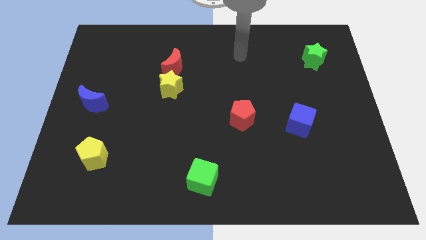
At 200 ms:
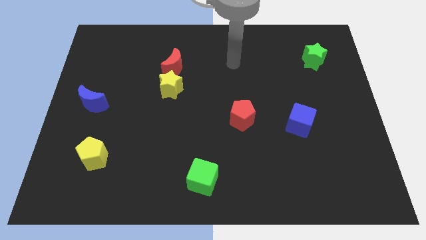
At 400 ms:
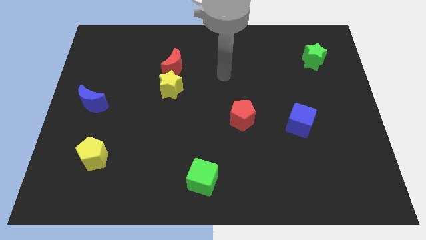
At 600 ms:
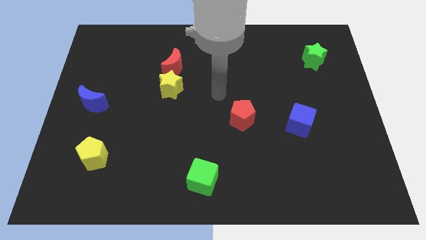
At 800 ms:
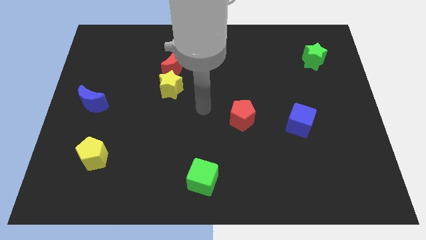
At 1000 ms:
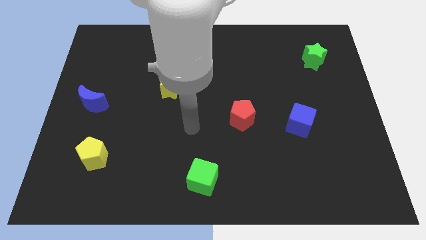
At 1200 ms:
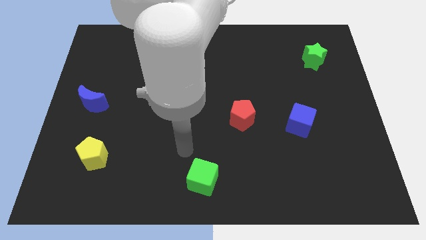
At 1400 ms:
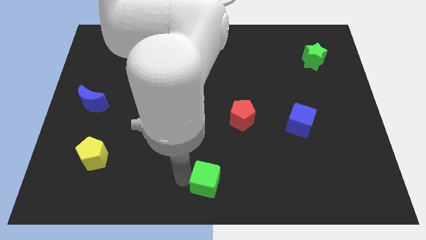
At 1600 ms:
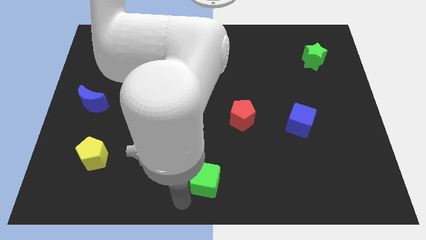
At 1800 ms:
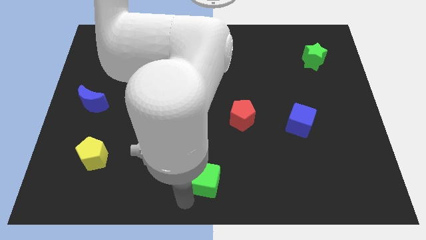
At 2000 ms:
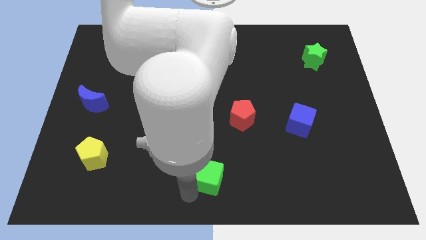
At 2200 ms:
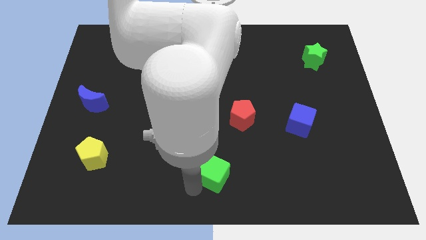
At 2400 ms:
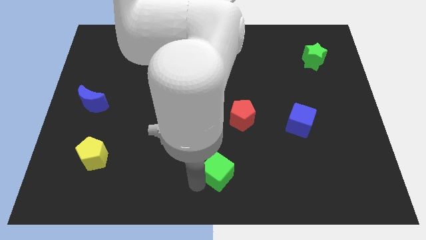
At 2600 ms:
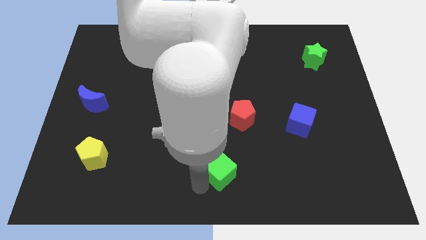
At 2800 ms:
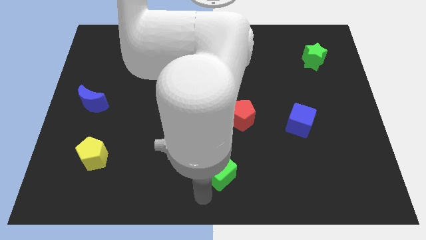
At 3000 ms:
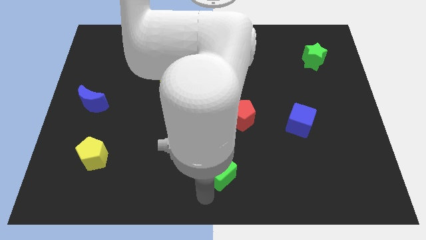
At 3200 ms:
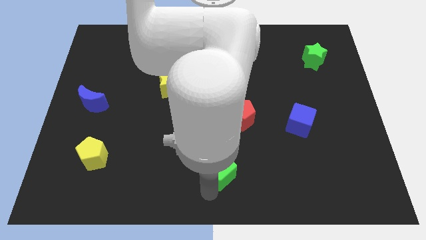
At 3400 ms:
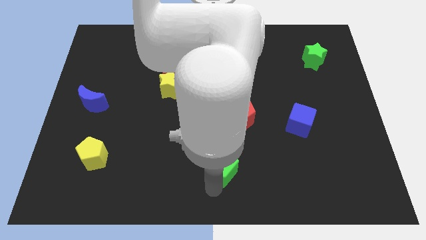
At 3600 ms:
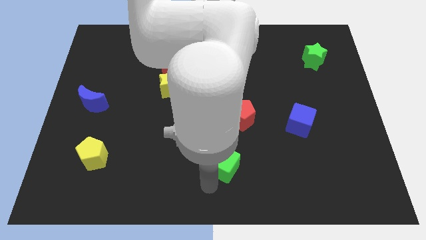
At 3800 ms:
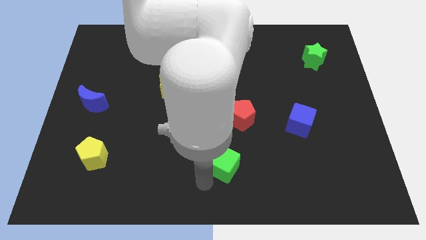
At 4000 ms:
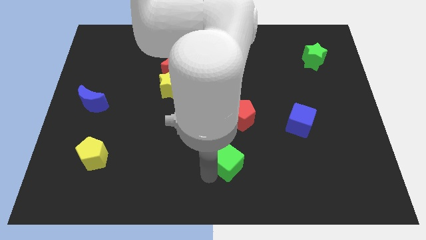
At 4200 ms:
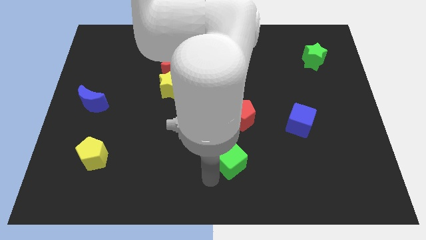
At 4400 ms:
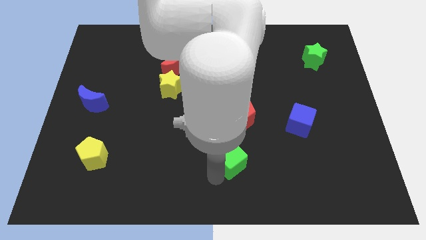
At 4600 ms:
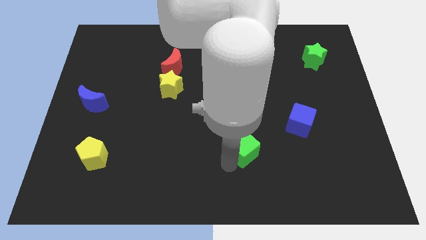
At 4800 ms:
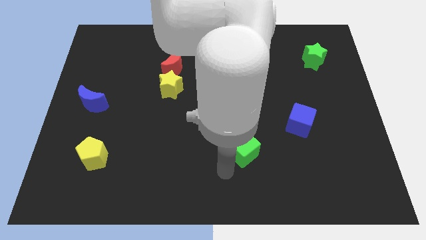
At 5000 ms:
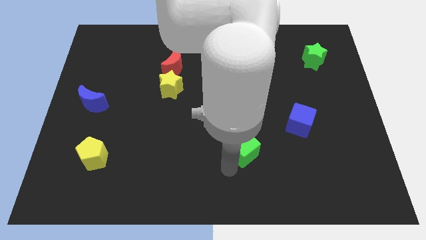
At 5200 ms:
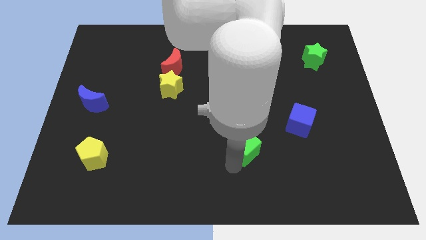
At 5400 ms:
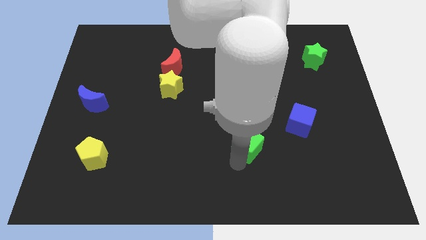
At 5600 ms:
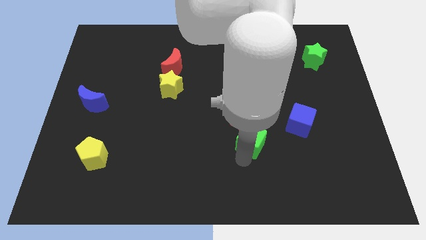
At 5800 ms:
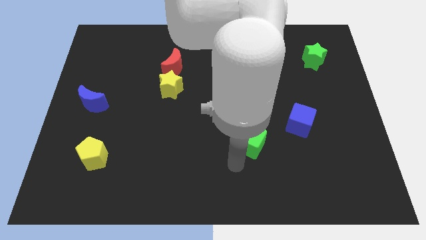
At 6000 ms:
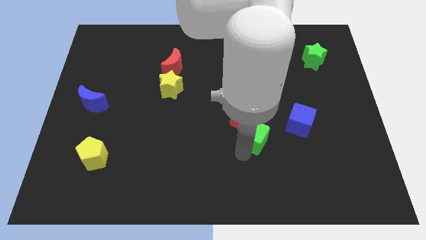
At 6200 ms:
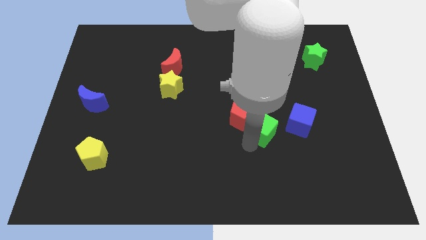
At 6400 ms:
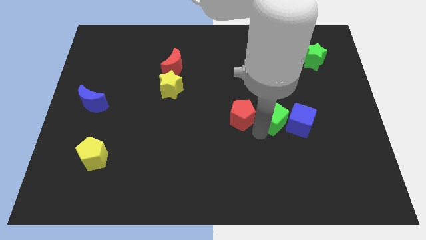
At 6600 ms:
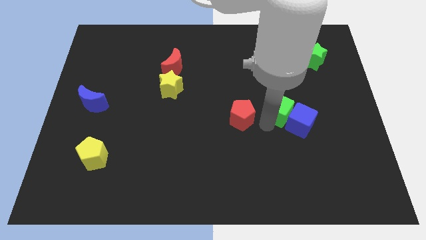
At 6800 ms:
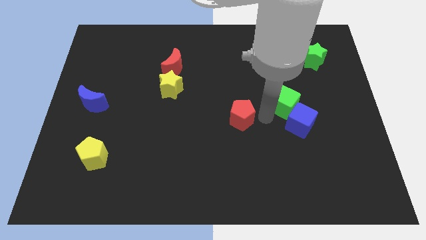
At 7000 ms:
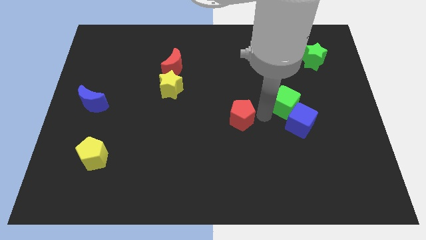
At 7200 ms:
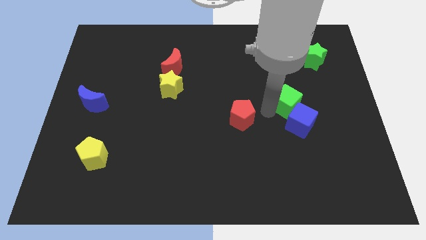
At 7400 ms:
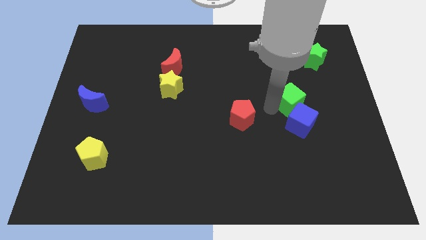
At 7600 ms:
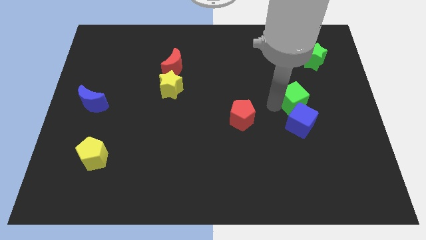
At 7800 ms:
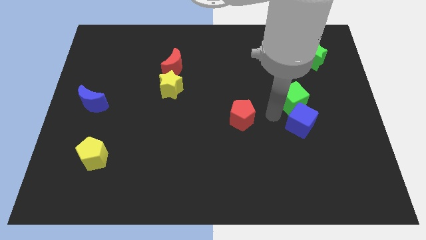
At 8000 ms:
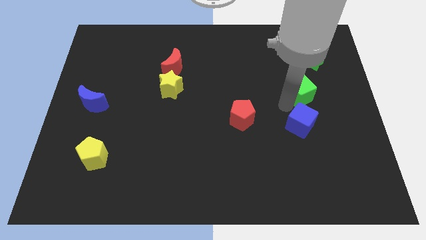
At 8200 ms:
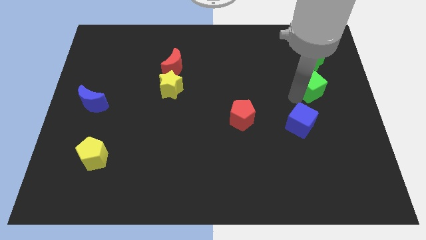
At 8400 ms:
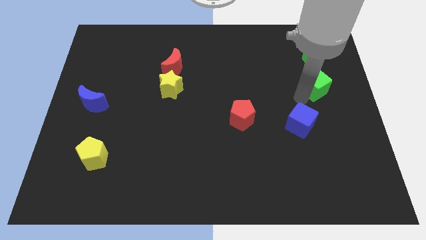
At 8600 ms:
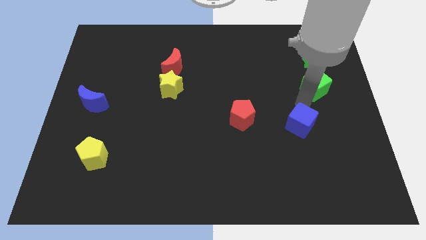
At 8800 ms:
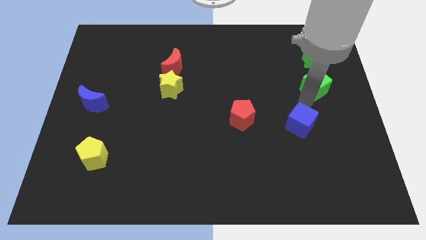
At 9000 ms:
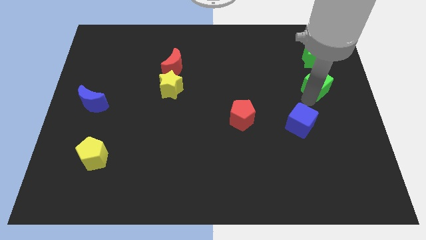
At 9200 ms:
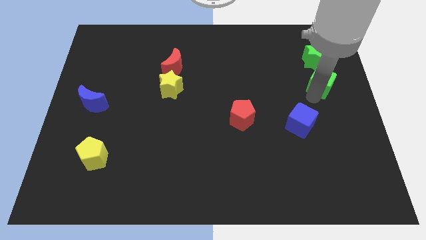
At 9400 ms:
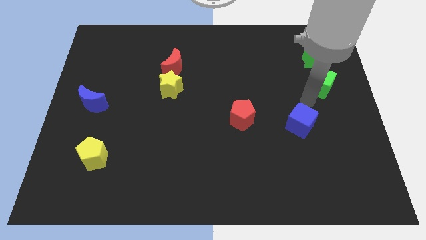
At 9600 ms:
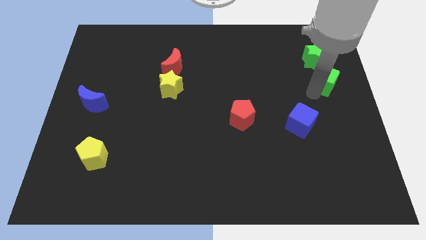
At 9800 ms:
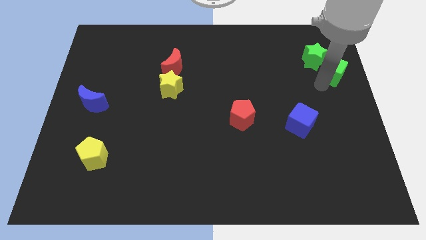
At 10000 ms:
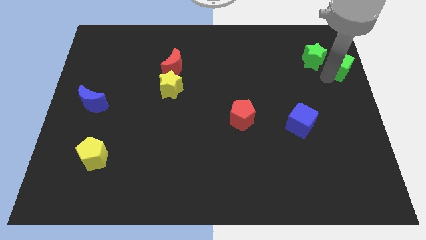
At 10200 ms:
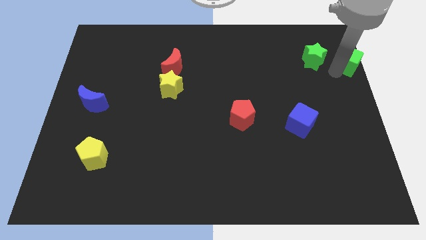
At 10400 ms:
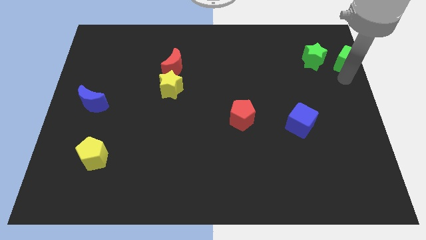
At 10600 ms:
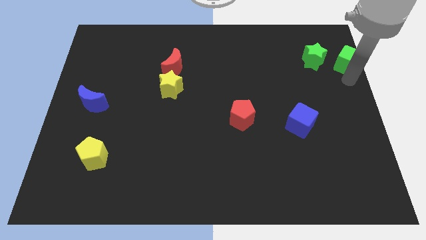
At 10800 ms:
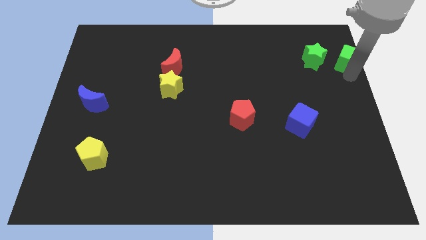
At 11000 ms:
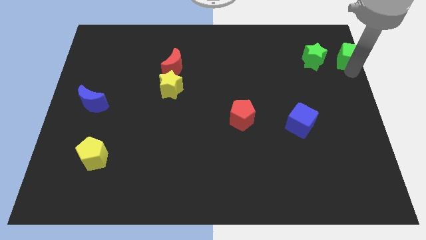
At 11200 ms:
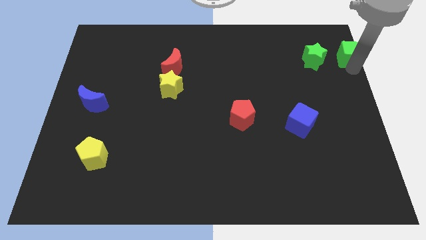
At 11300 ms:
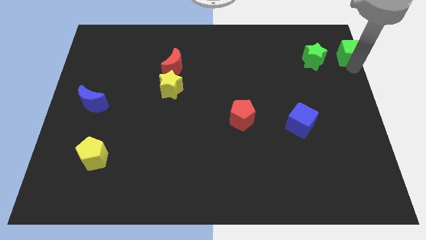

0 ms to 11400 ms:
push the green cube to the top right of the board

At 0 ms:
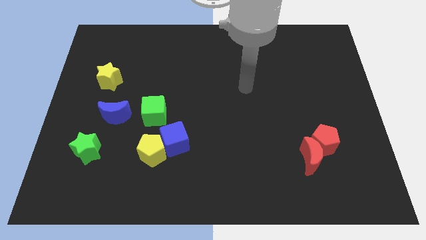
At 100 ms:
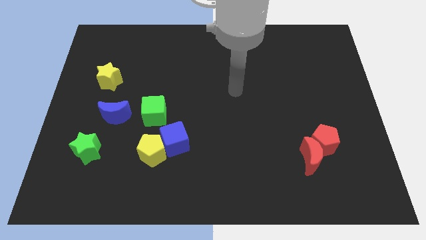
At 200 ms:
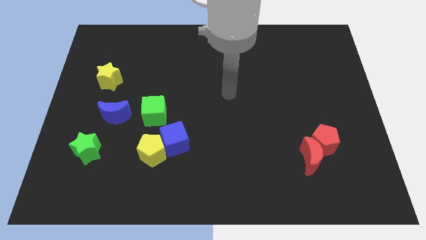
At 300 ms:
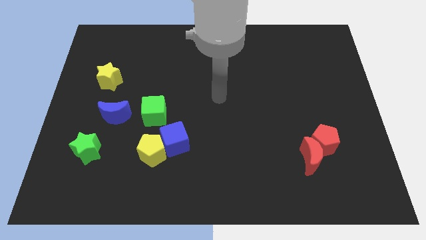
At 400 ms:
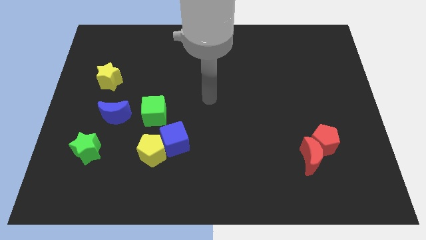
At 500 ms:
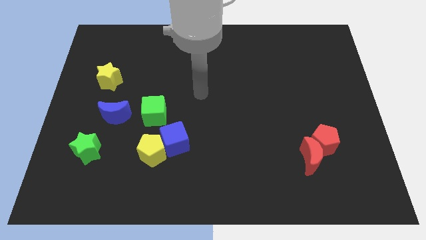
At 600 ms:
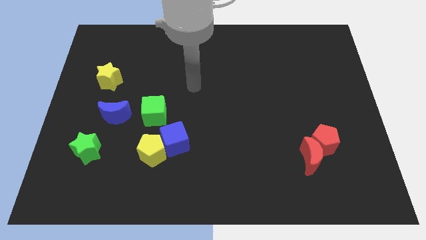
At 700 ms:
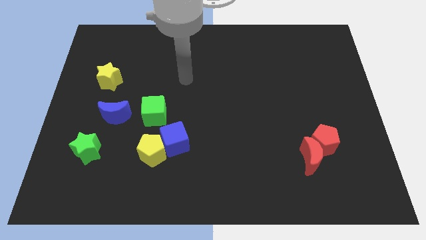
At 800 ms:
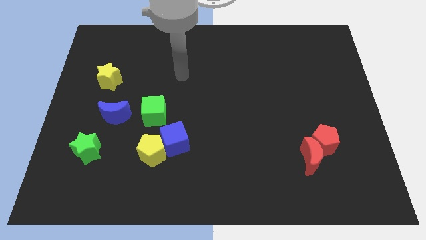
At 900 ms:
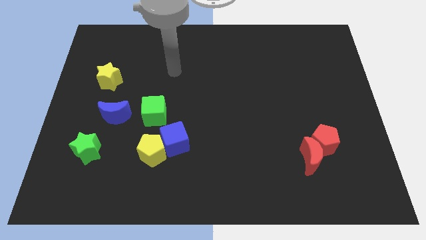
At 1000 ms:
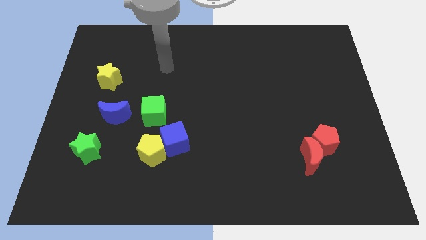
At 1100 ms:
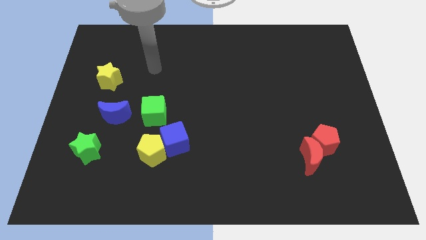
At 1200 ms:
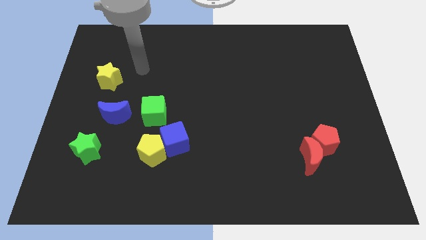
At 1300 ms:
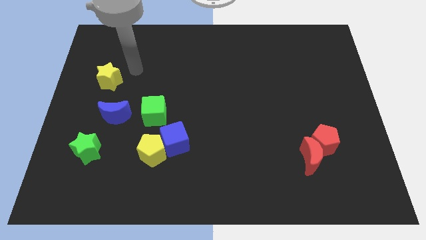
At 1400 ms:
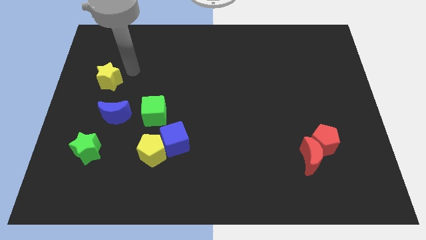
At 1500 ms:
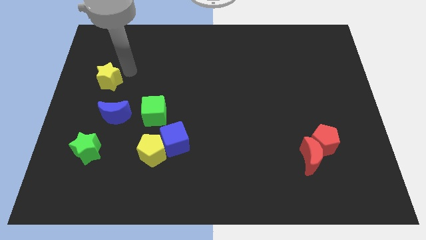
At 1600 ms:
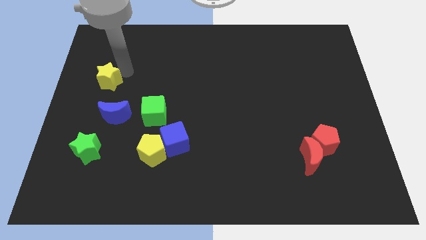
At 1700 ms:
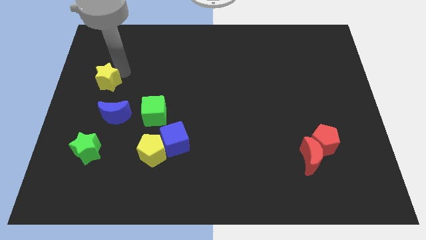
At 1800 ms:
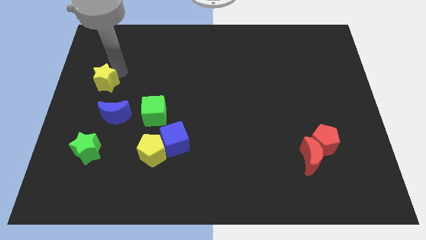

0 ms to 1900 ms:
move the yellow star to the left side
